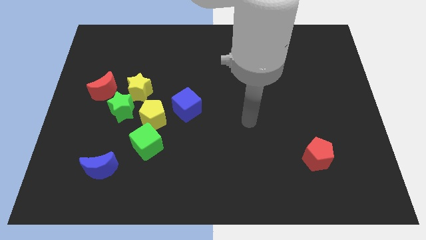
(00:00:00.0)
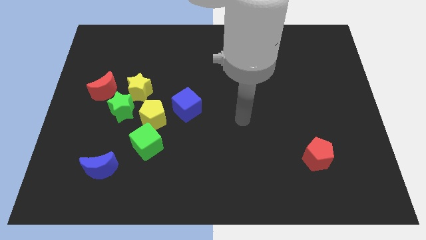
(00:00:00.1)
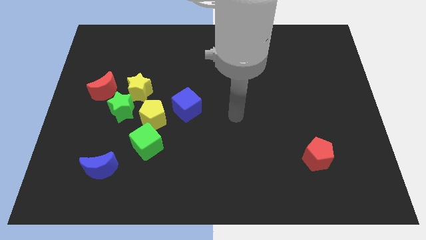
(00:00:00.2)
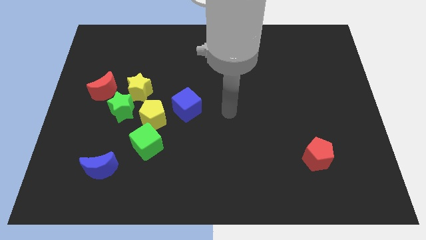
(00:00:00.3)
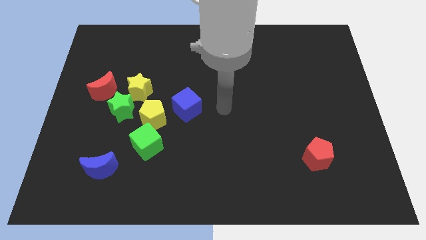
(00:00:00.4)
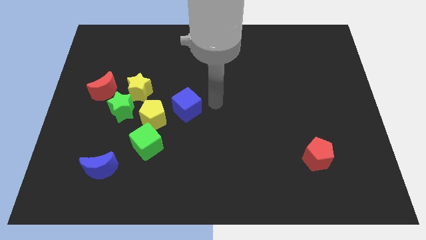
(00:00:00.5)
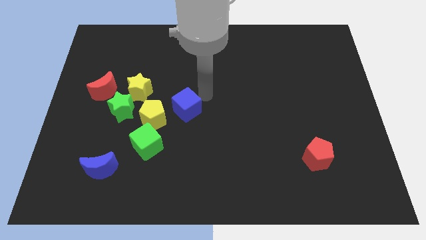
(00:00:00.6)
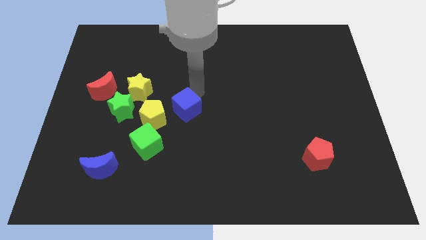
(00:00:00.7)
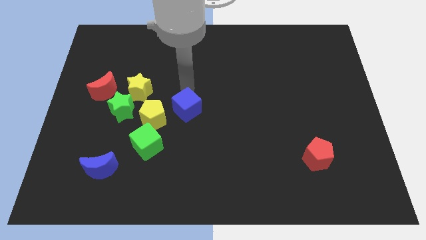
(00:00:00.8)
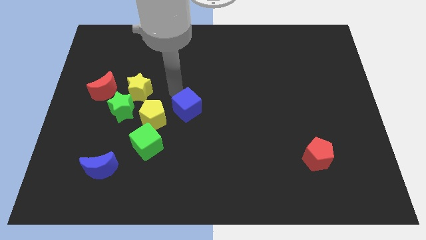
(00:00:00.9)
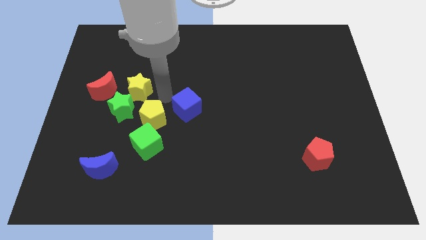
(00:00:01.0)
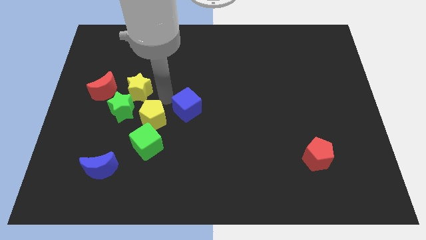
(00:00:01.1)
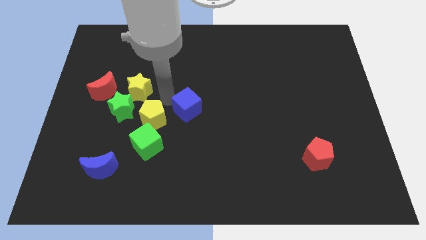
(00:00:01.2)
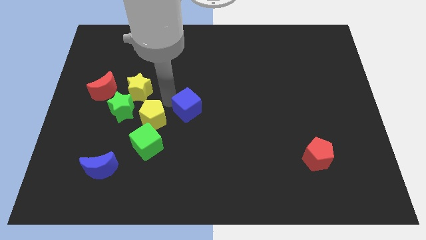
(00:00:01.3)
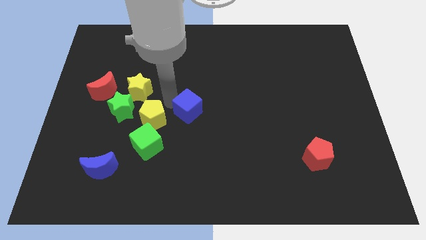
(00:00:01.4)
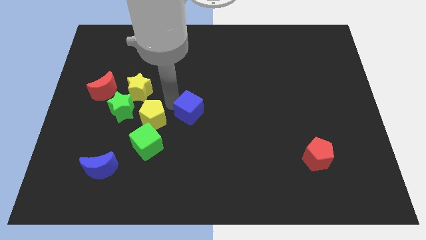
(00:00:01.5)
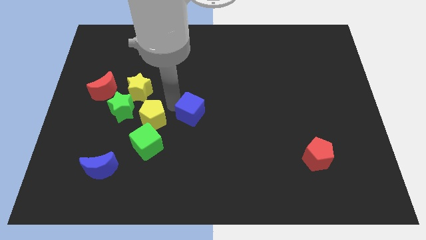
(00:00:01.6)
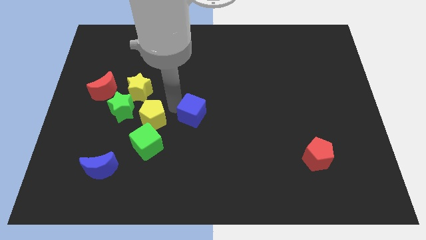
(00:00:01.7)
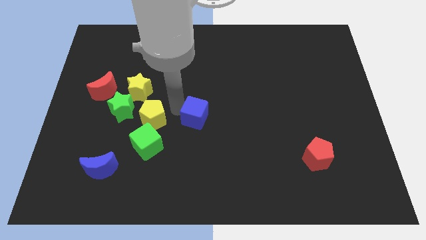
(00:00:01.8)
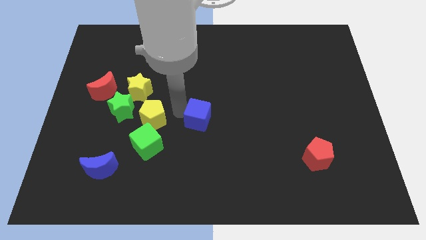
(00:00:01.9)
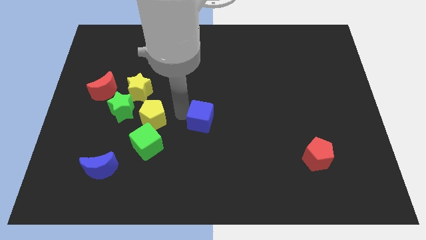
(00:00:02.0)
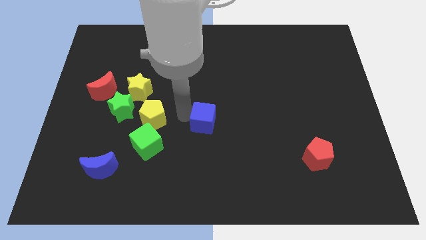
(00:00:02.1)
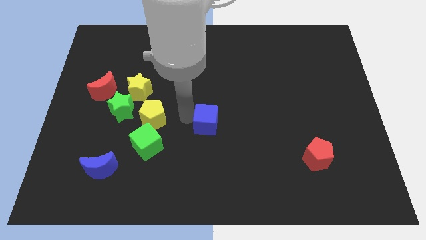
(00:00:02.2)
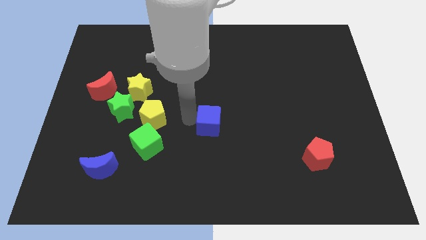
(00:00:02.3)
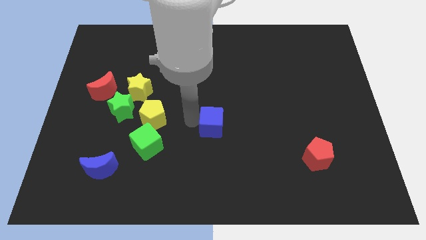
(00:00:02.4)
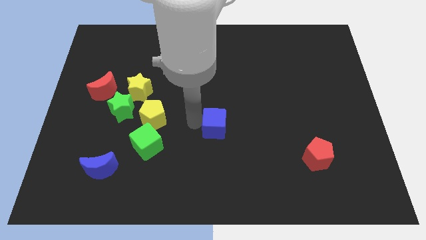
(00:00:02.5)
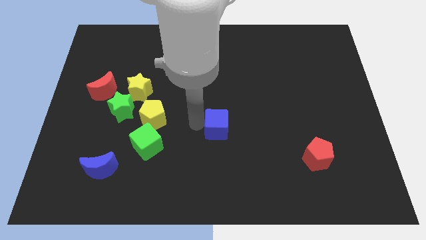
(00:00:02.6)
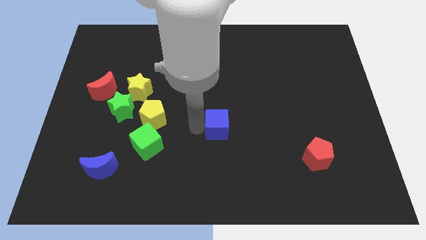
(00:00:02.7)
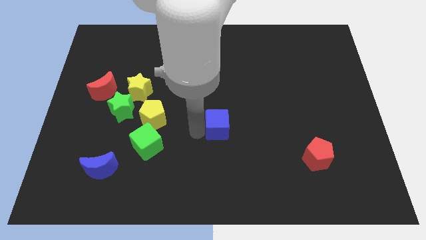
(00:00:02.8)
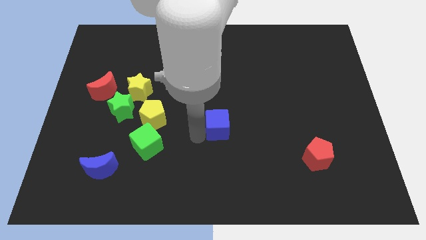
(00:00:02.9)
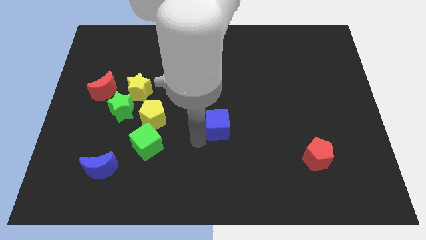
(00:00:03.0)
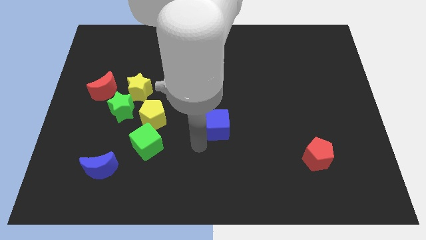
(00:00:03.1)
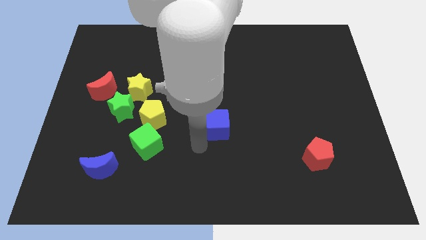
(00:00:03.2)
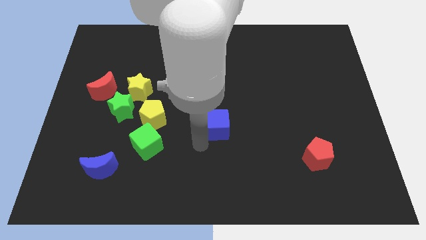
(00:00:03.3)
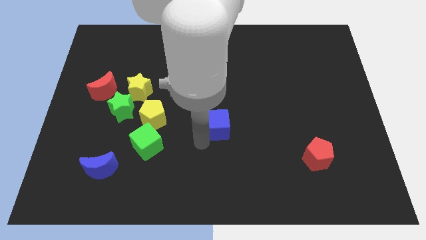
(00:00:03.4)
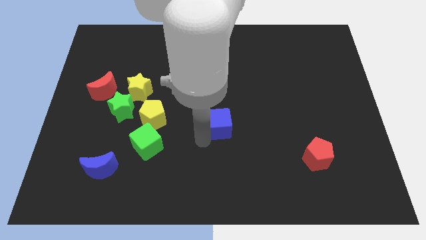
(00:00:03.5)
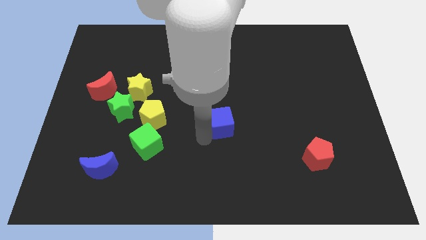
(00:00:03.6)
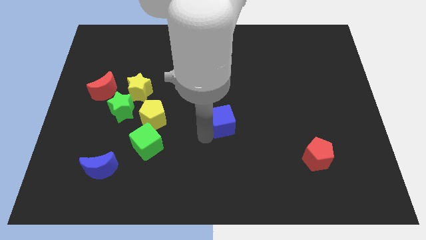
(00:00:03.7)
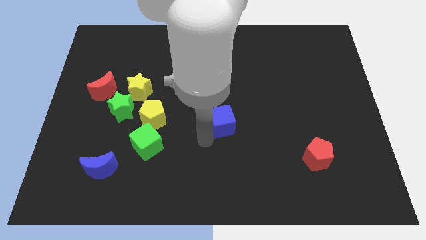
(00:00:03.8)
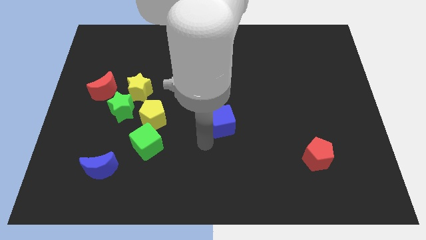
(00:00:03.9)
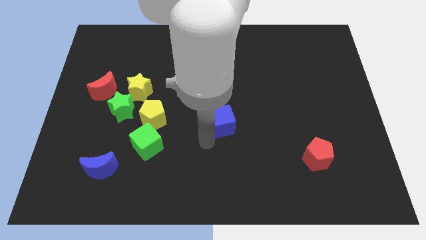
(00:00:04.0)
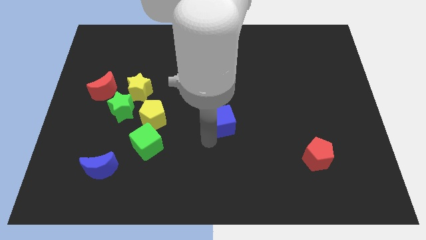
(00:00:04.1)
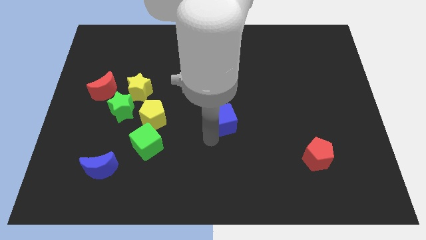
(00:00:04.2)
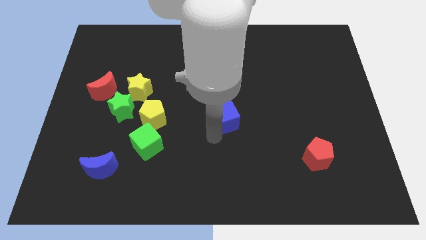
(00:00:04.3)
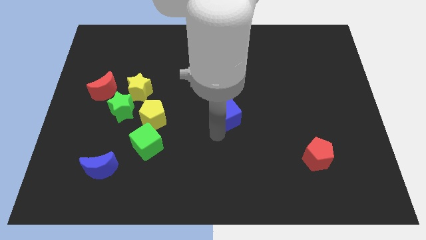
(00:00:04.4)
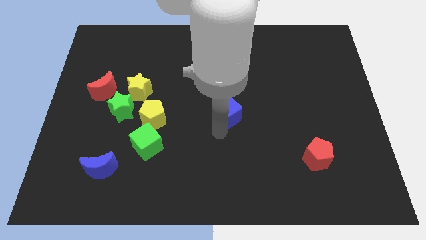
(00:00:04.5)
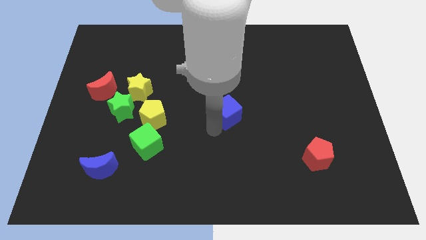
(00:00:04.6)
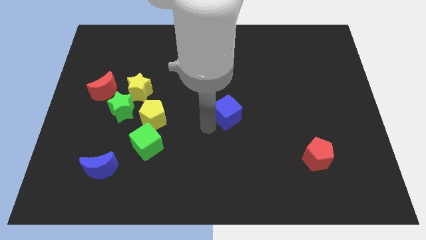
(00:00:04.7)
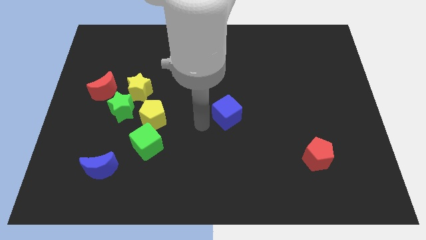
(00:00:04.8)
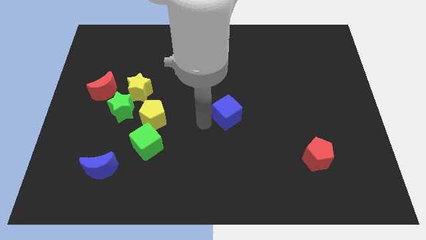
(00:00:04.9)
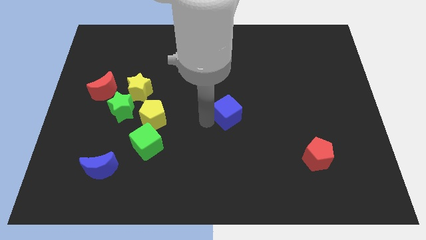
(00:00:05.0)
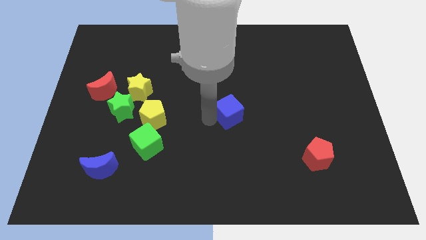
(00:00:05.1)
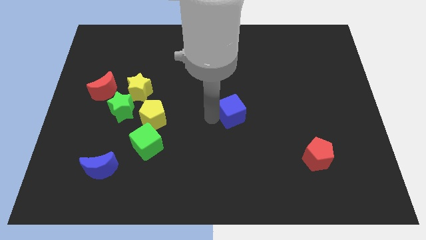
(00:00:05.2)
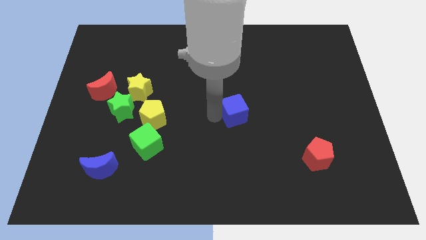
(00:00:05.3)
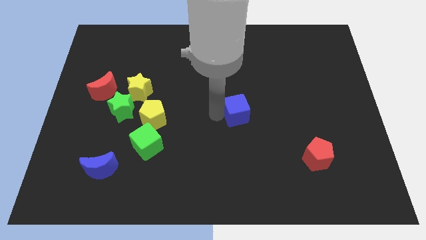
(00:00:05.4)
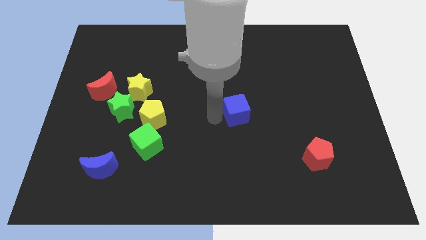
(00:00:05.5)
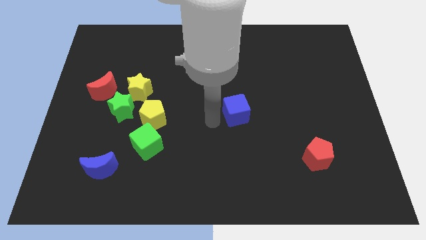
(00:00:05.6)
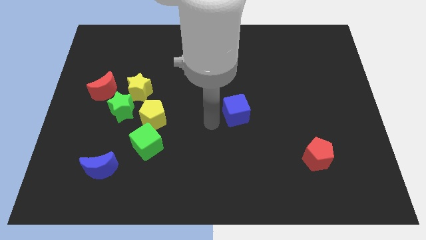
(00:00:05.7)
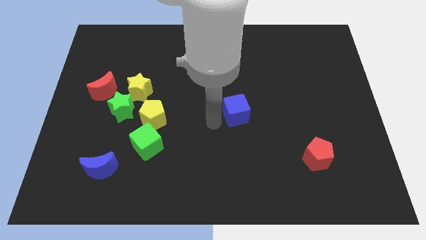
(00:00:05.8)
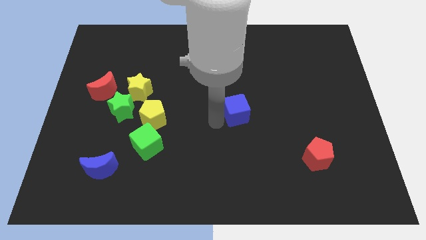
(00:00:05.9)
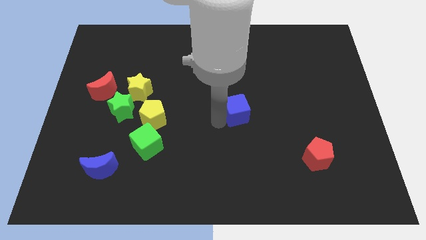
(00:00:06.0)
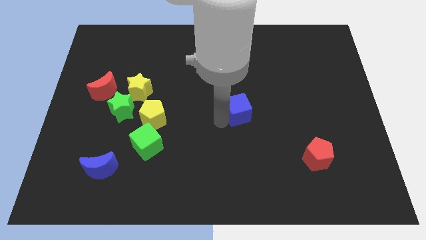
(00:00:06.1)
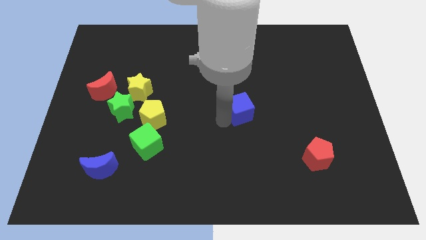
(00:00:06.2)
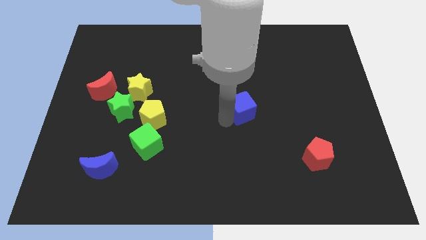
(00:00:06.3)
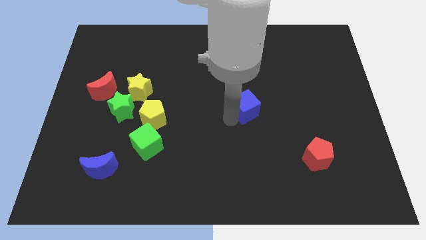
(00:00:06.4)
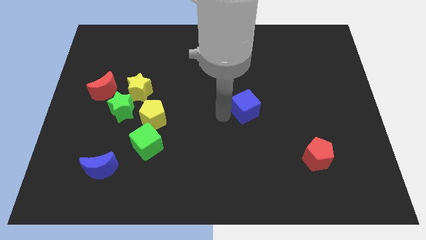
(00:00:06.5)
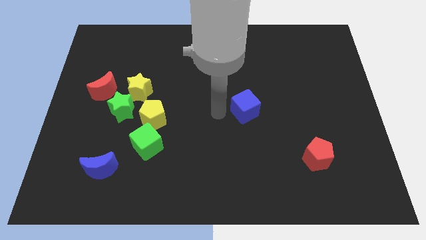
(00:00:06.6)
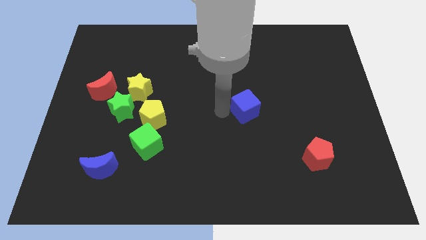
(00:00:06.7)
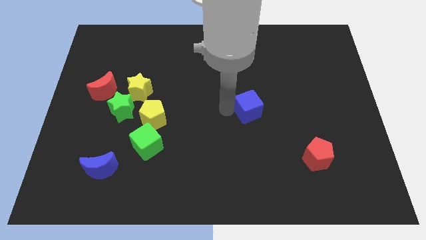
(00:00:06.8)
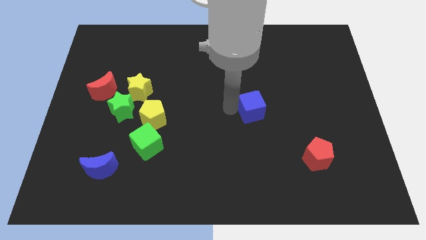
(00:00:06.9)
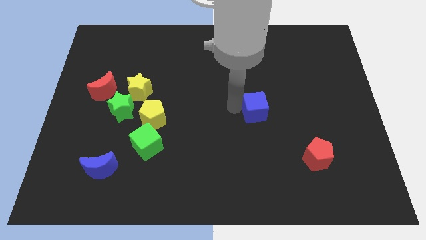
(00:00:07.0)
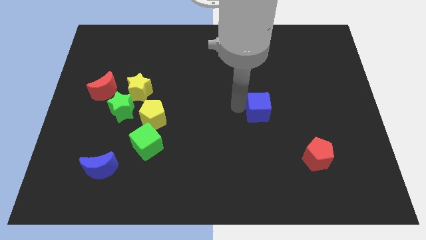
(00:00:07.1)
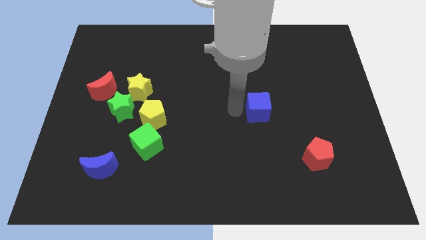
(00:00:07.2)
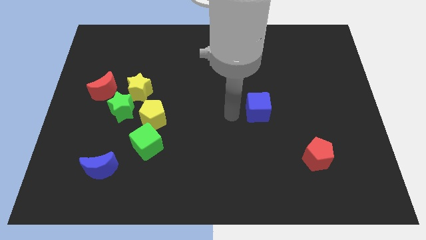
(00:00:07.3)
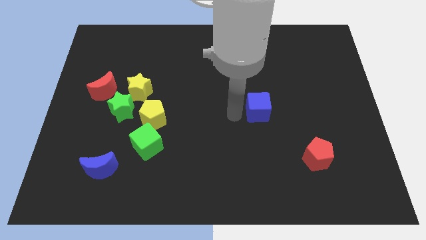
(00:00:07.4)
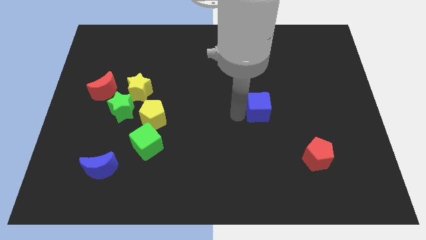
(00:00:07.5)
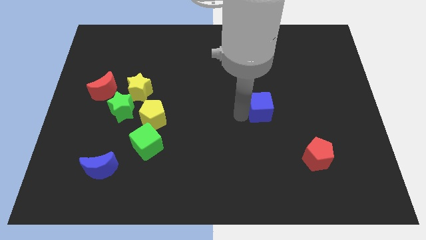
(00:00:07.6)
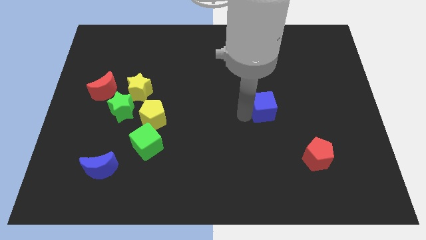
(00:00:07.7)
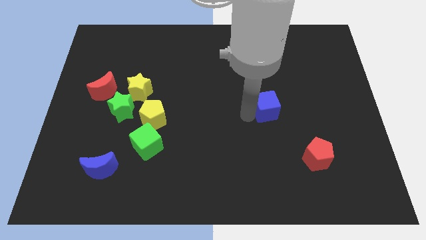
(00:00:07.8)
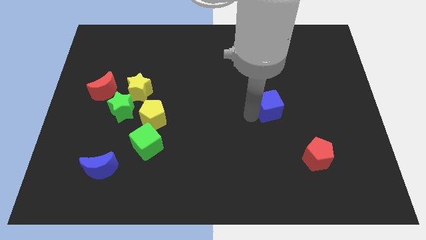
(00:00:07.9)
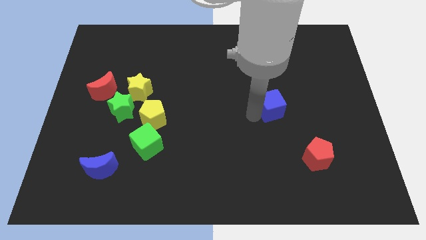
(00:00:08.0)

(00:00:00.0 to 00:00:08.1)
move the blue cube to the right

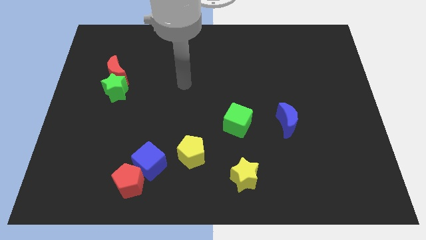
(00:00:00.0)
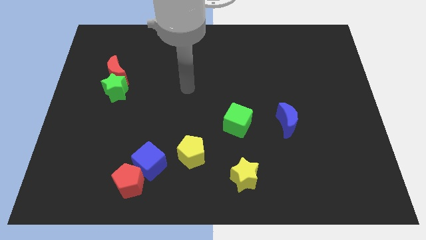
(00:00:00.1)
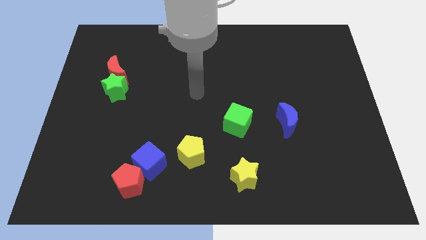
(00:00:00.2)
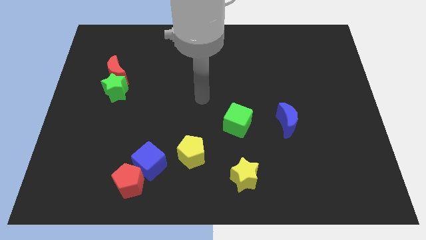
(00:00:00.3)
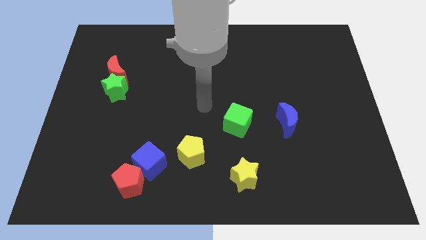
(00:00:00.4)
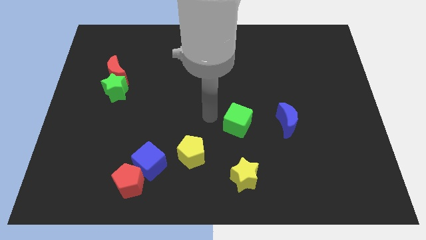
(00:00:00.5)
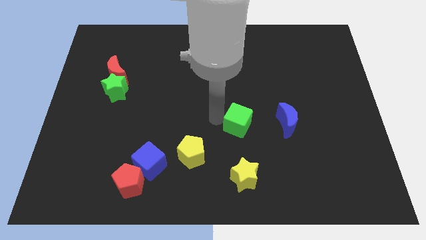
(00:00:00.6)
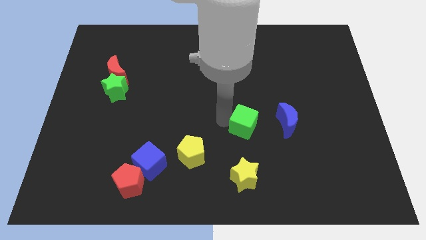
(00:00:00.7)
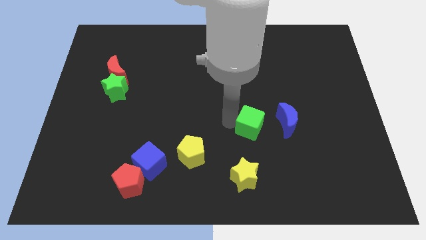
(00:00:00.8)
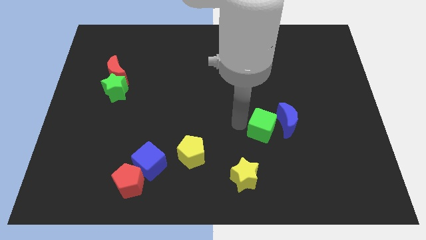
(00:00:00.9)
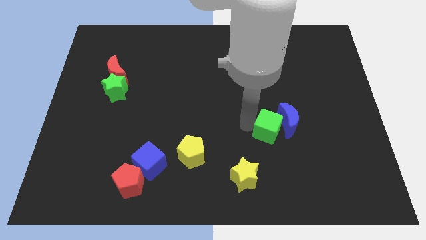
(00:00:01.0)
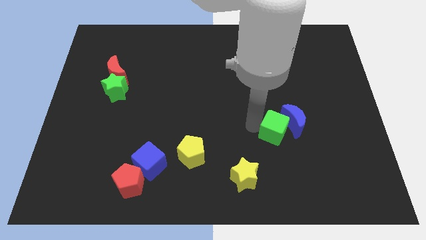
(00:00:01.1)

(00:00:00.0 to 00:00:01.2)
slightly move the green cube right
